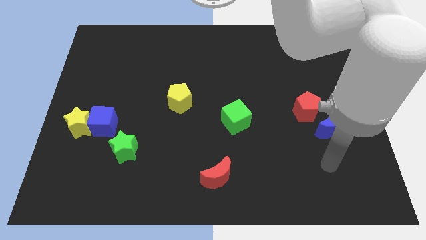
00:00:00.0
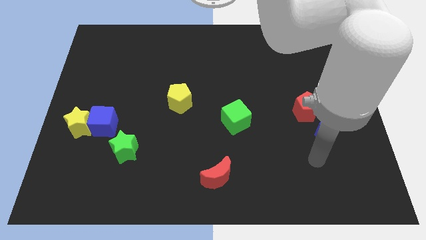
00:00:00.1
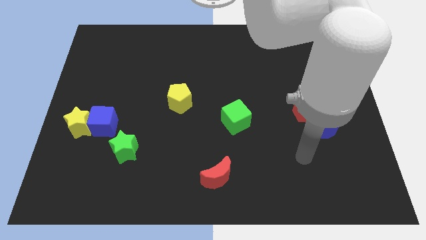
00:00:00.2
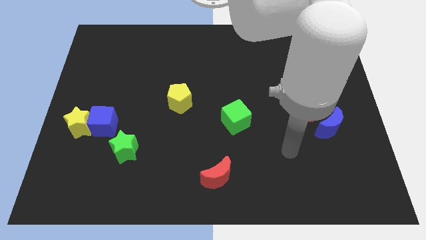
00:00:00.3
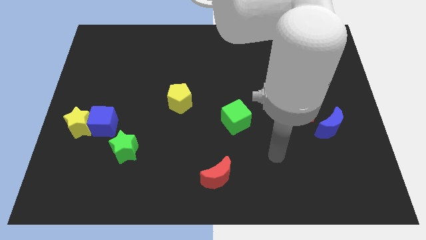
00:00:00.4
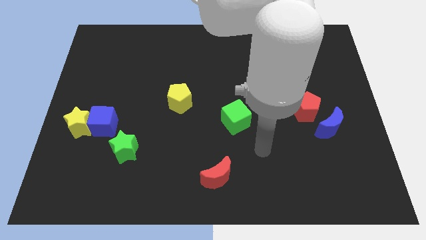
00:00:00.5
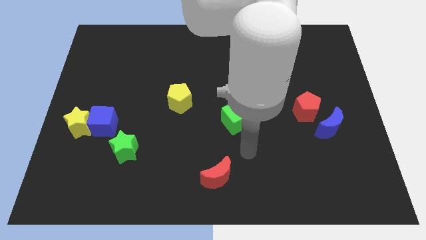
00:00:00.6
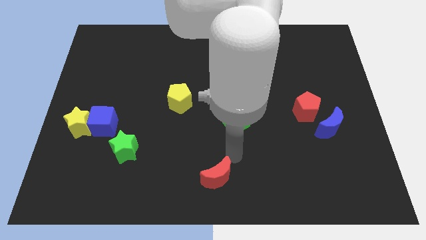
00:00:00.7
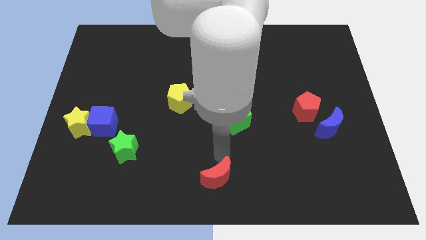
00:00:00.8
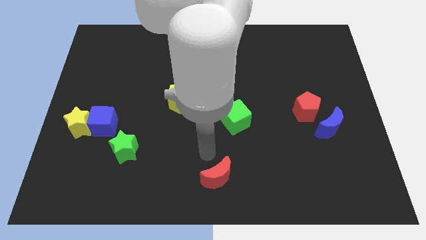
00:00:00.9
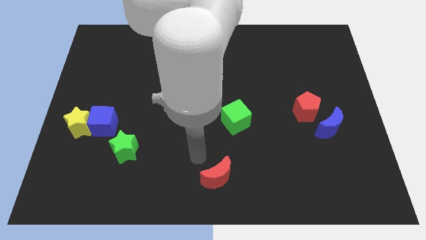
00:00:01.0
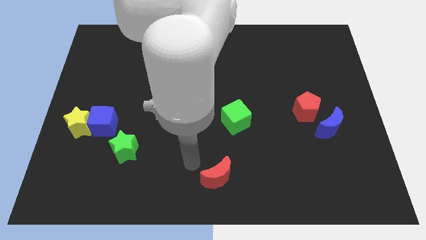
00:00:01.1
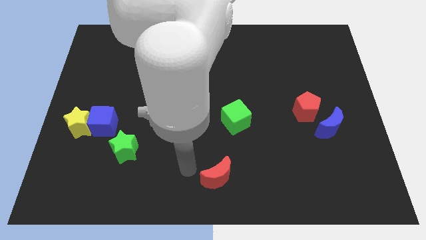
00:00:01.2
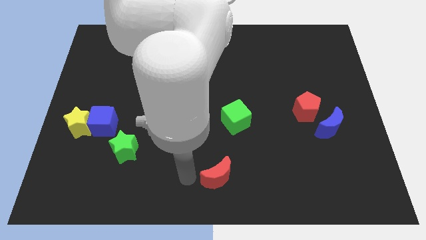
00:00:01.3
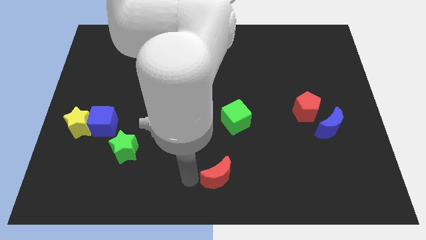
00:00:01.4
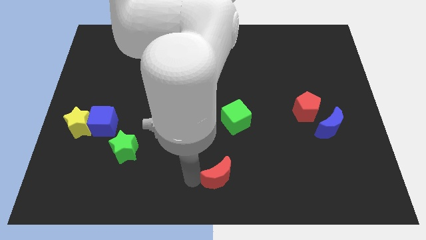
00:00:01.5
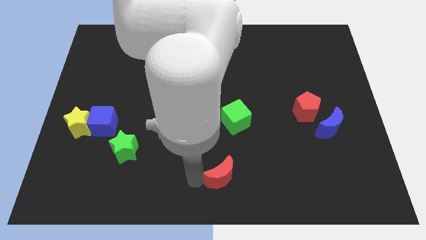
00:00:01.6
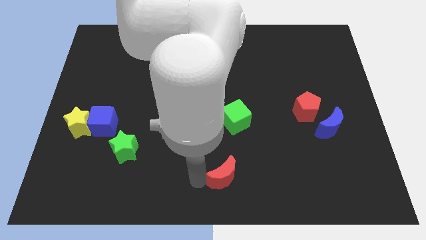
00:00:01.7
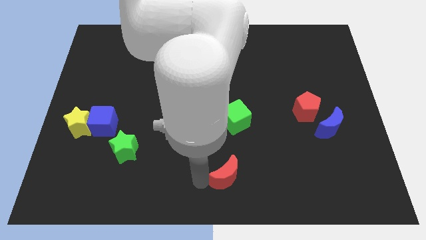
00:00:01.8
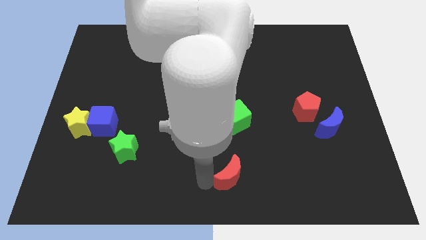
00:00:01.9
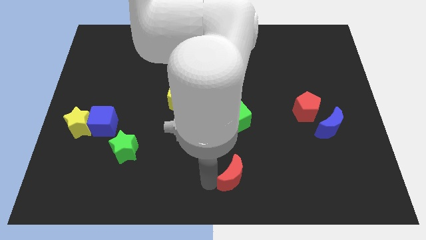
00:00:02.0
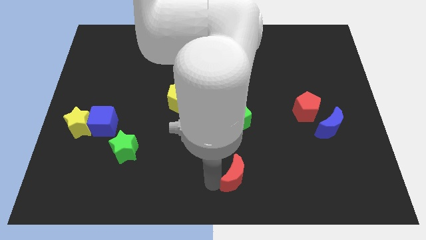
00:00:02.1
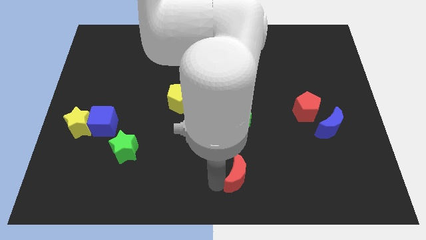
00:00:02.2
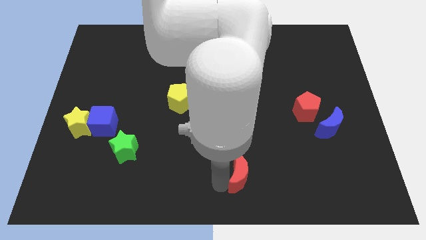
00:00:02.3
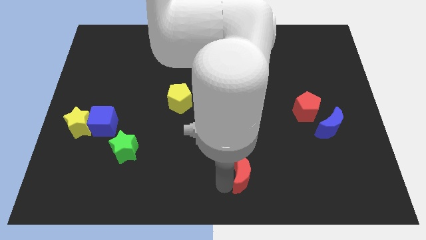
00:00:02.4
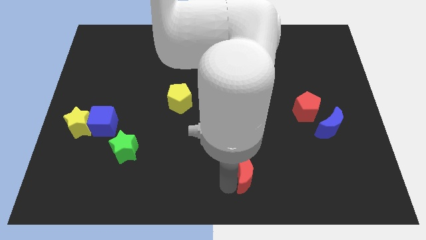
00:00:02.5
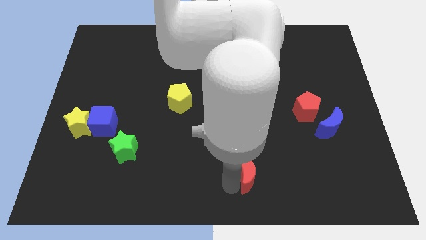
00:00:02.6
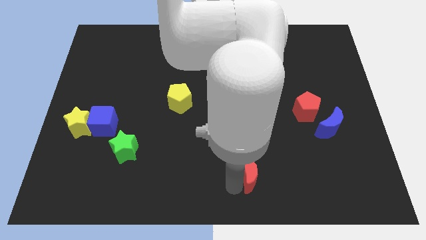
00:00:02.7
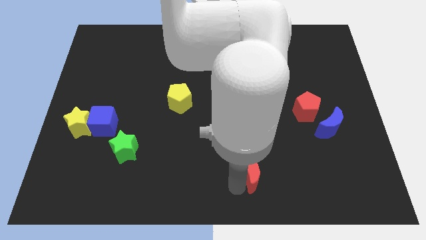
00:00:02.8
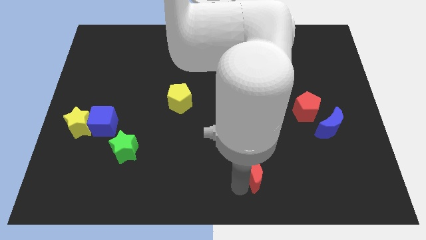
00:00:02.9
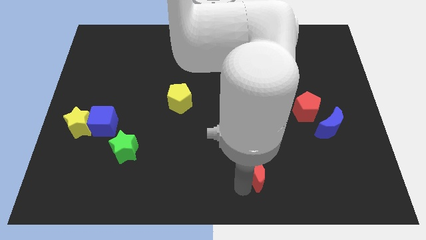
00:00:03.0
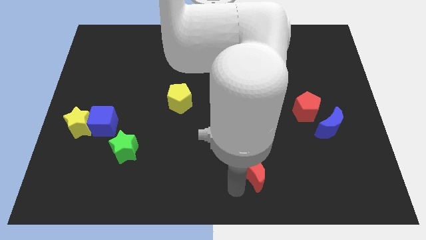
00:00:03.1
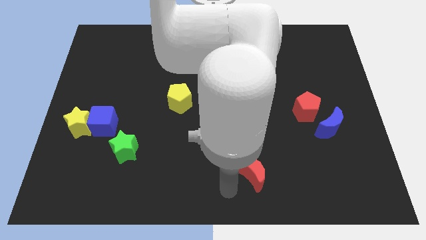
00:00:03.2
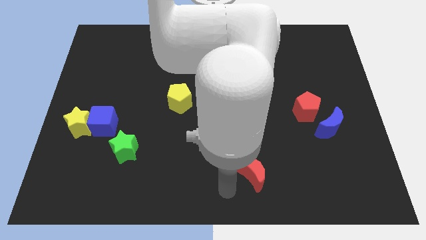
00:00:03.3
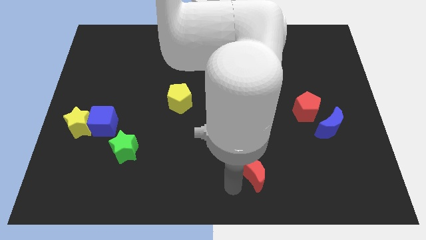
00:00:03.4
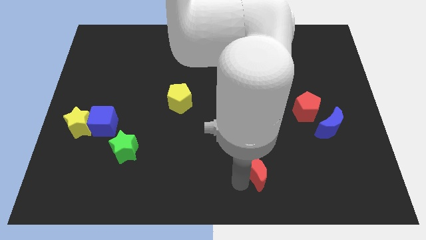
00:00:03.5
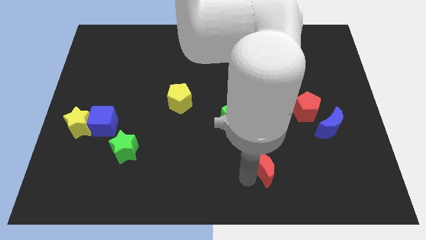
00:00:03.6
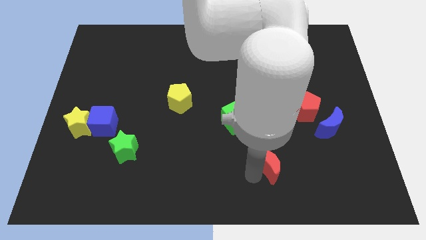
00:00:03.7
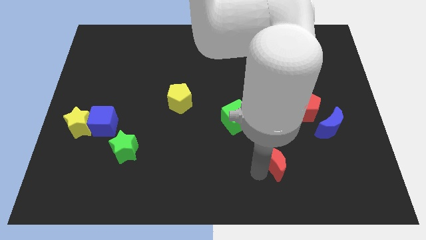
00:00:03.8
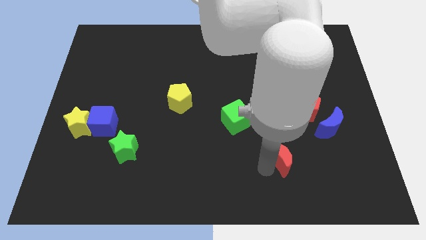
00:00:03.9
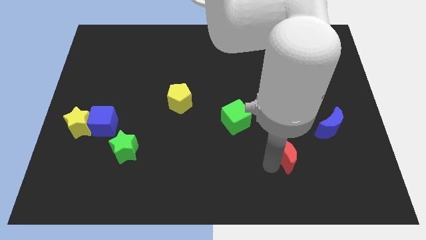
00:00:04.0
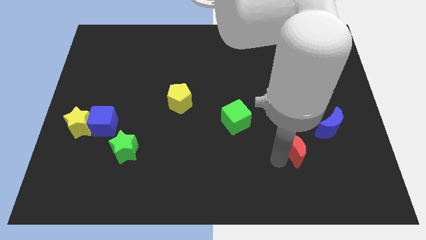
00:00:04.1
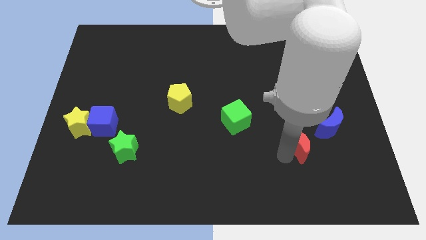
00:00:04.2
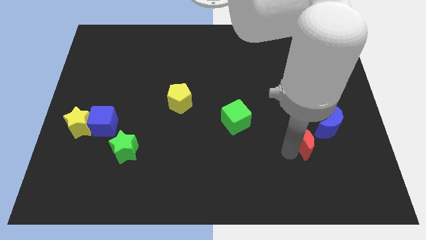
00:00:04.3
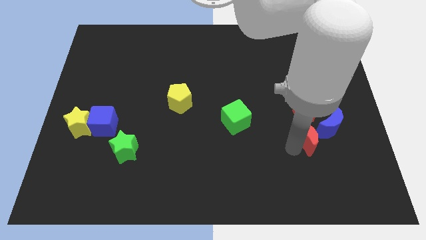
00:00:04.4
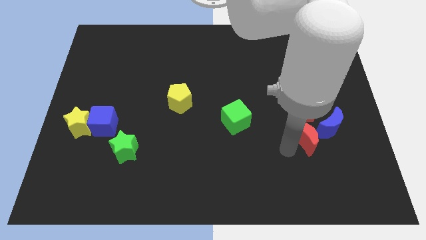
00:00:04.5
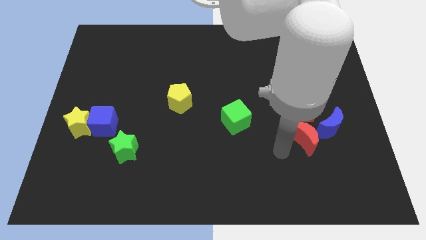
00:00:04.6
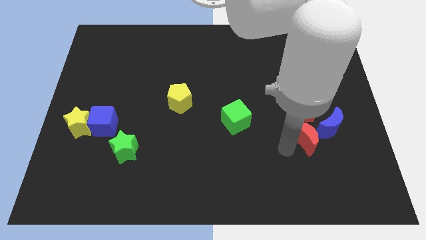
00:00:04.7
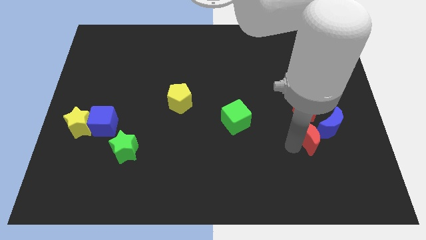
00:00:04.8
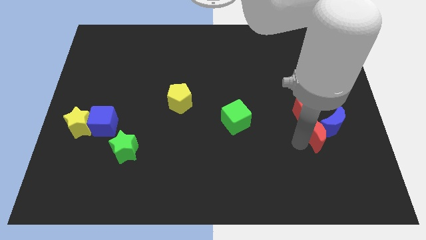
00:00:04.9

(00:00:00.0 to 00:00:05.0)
slide the red moon close to the blue moon

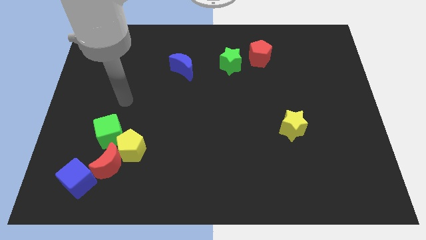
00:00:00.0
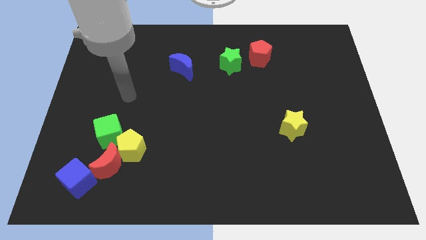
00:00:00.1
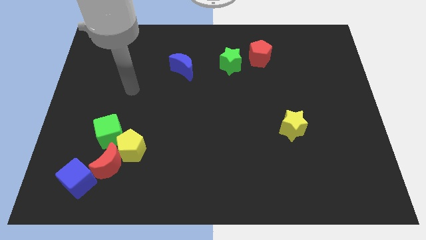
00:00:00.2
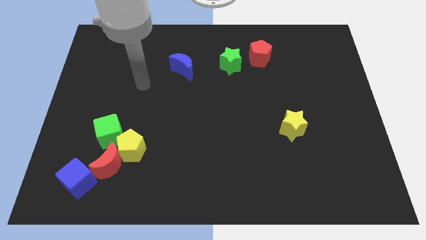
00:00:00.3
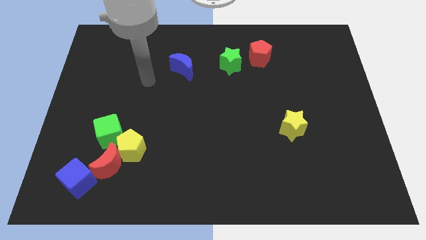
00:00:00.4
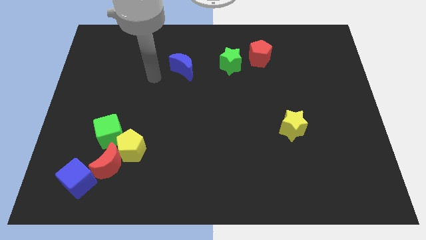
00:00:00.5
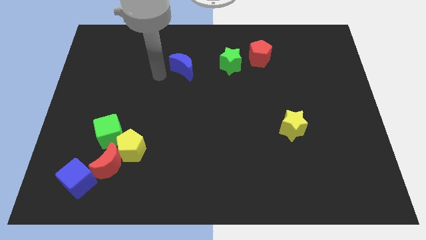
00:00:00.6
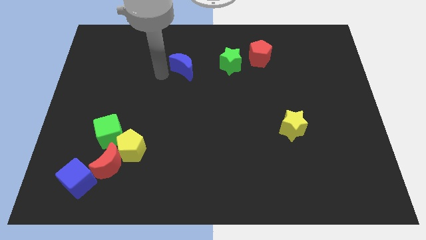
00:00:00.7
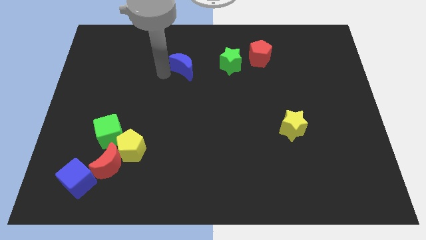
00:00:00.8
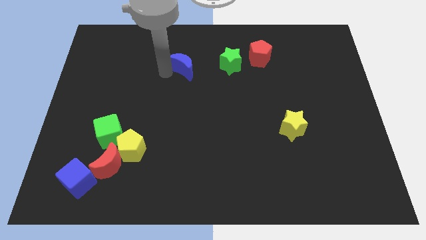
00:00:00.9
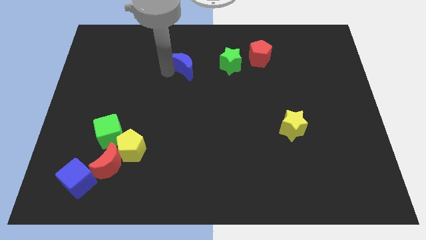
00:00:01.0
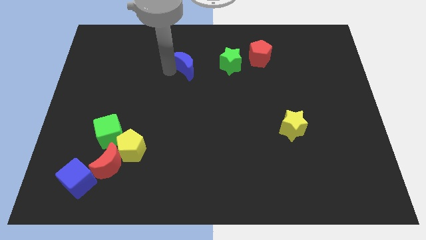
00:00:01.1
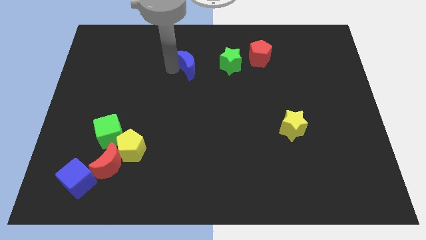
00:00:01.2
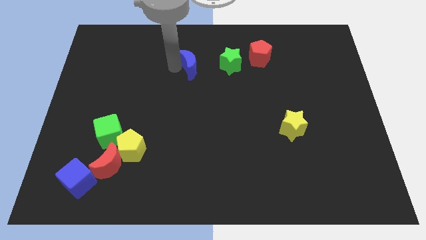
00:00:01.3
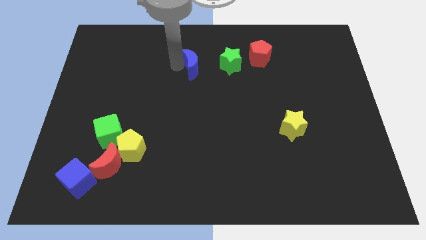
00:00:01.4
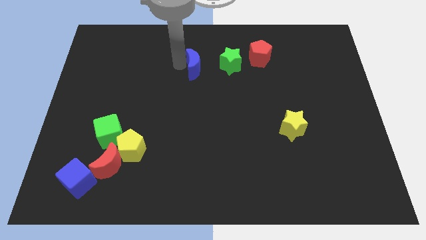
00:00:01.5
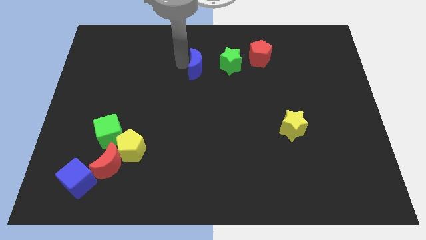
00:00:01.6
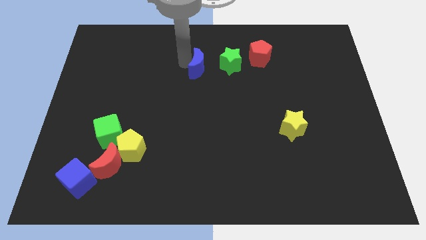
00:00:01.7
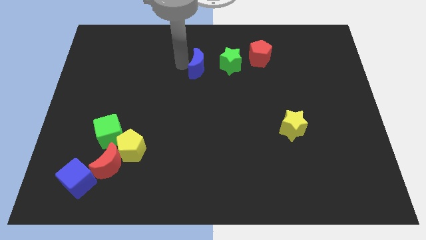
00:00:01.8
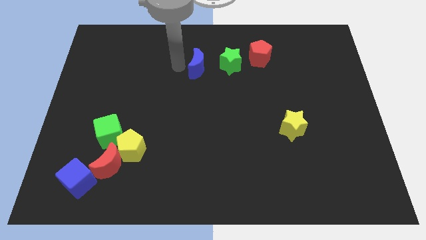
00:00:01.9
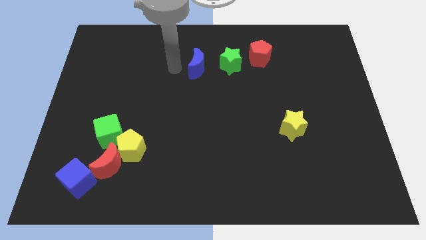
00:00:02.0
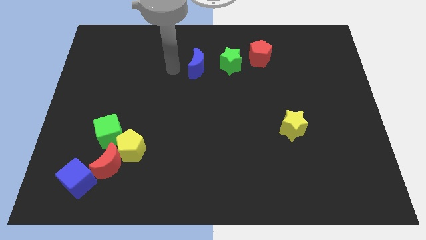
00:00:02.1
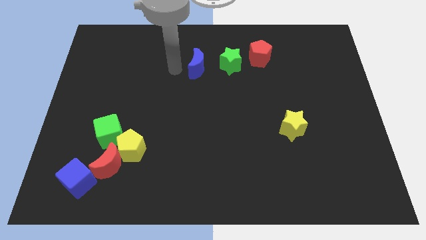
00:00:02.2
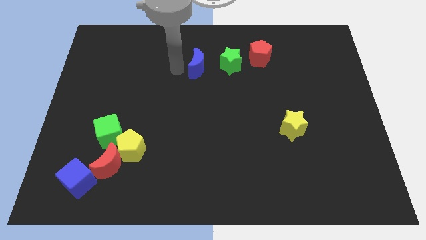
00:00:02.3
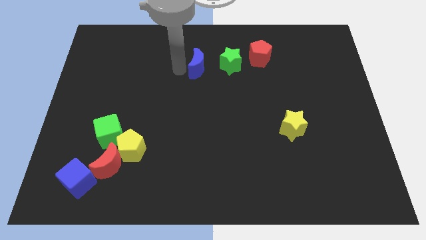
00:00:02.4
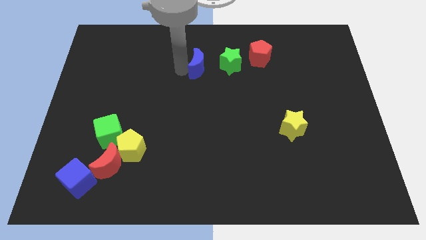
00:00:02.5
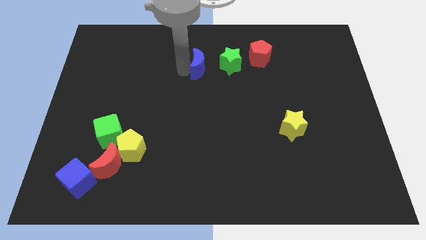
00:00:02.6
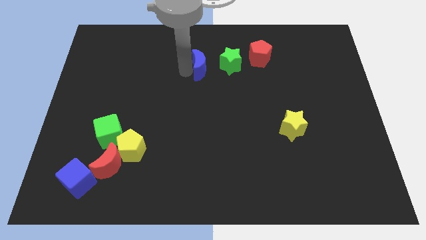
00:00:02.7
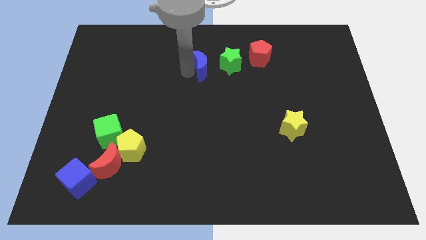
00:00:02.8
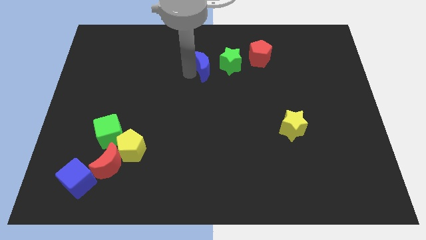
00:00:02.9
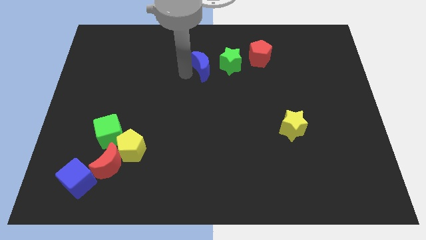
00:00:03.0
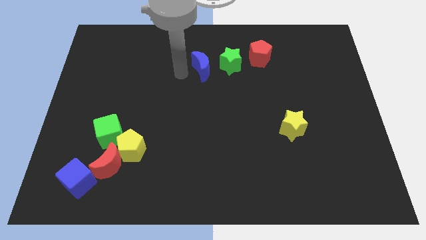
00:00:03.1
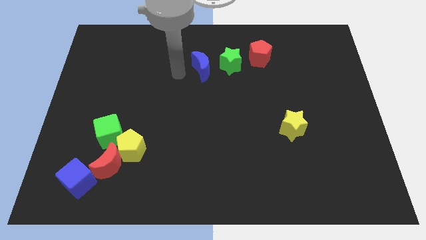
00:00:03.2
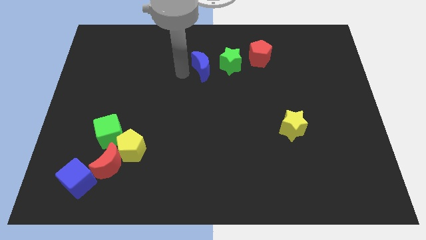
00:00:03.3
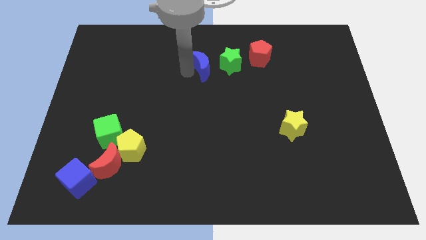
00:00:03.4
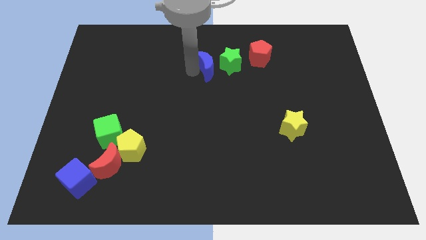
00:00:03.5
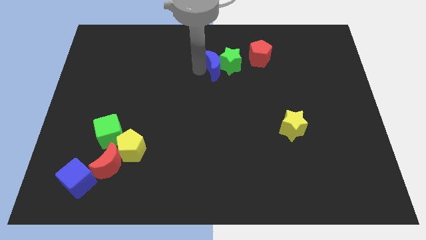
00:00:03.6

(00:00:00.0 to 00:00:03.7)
put the blue moon close to the green star
